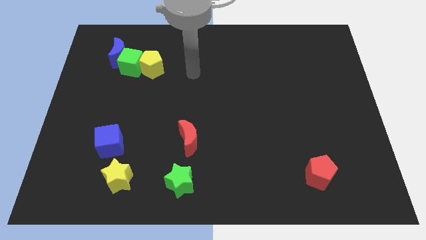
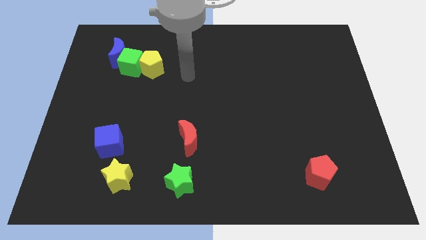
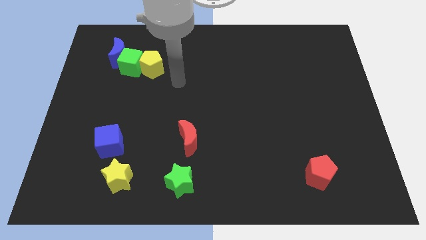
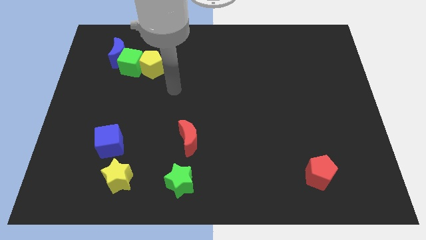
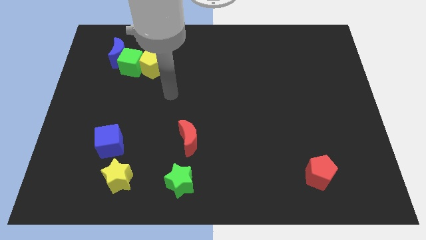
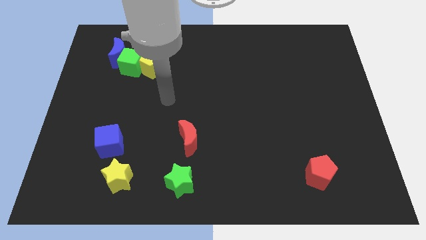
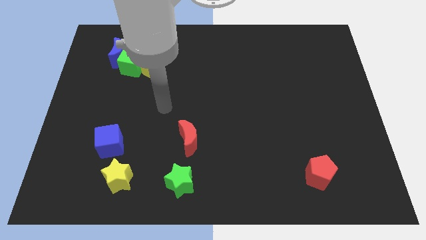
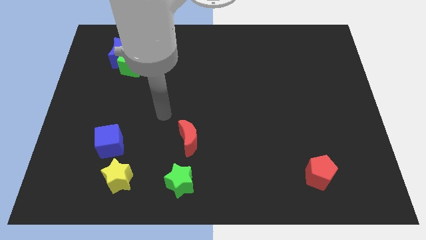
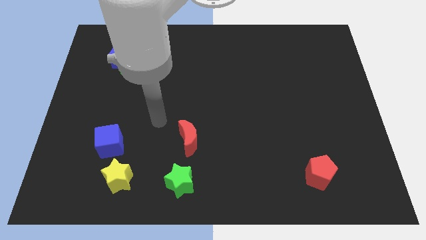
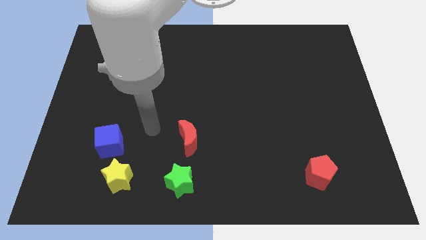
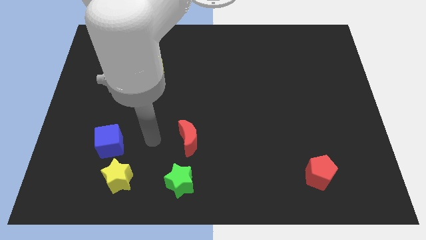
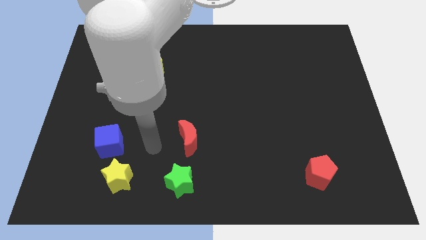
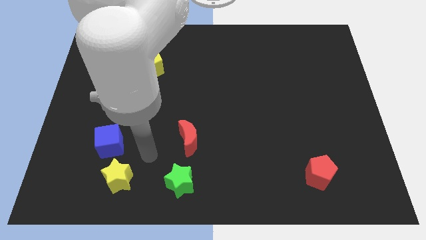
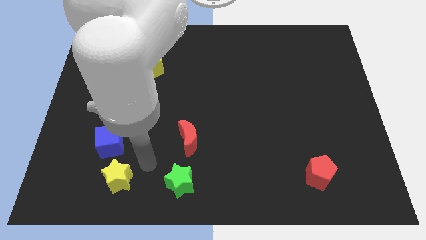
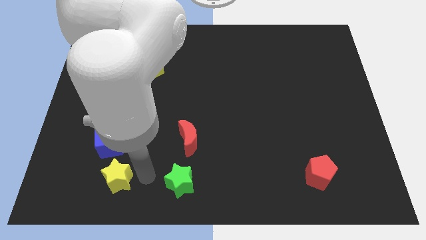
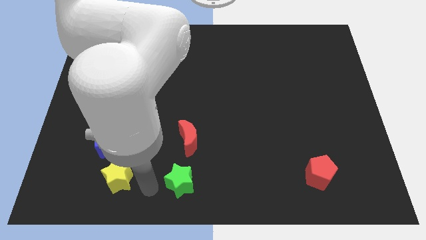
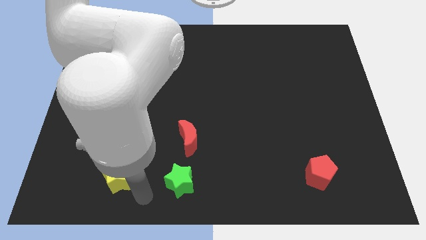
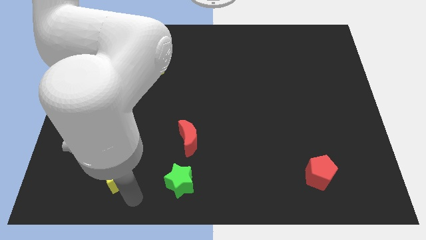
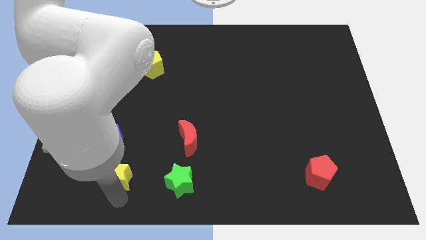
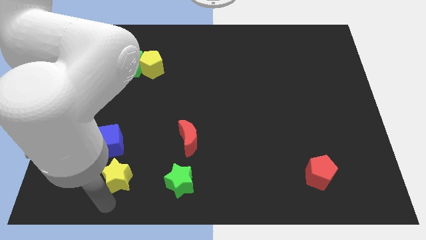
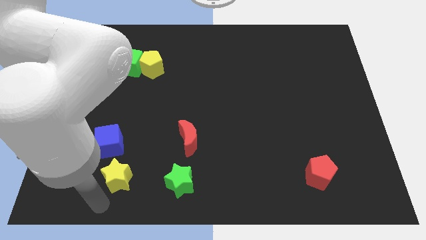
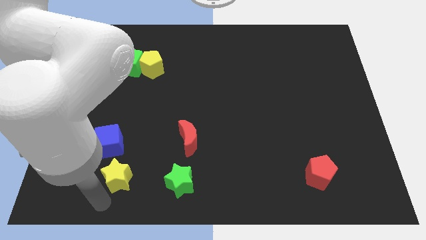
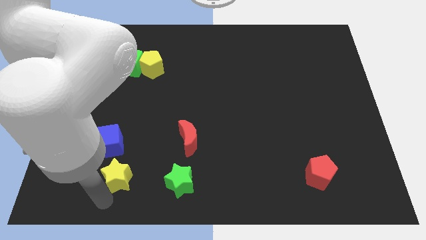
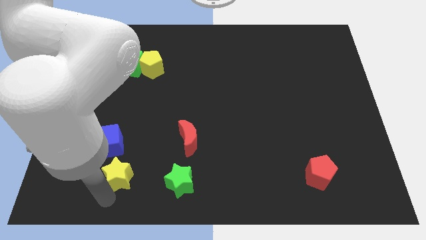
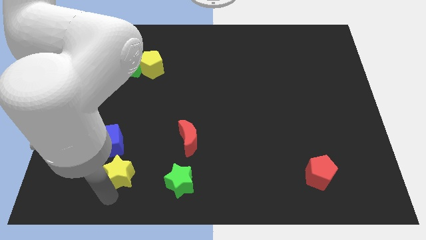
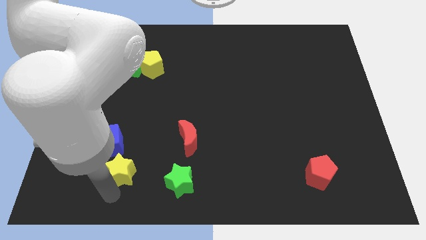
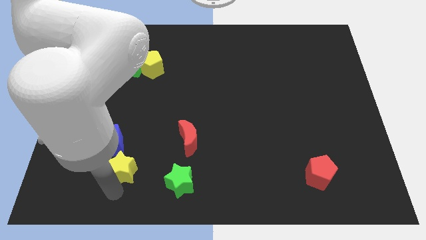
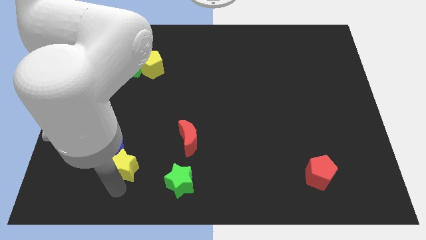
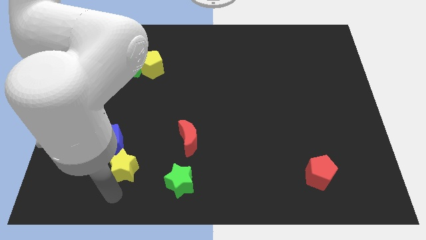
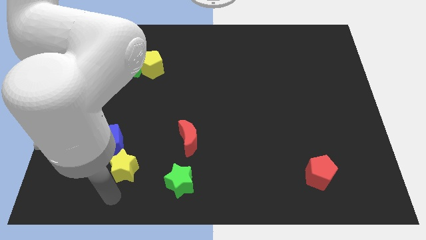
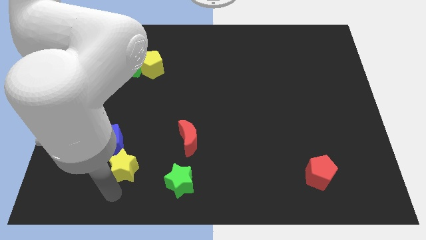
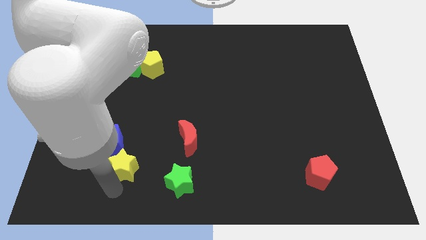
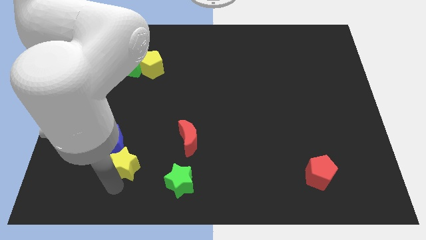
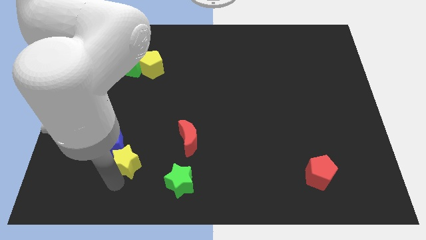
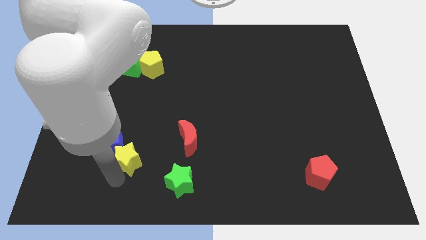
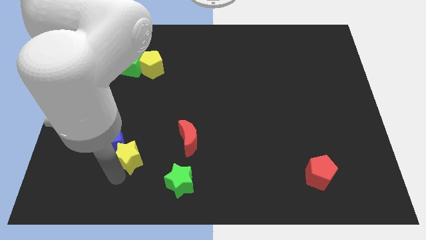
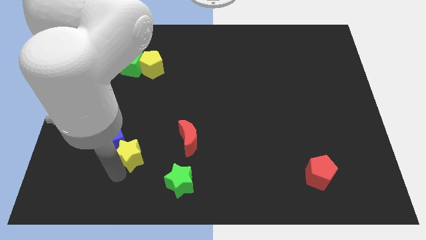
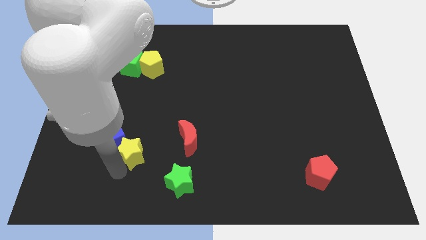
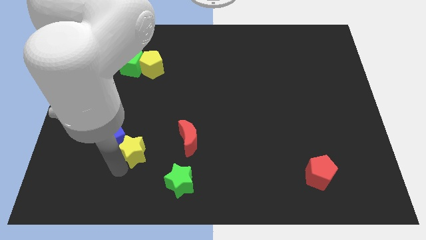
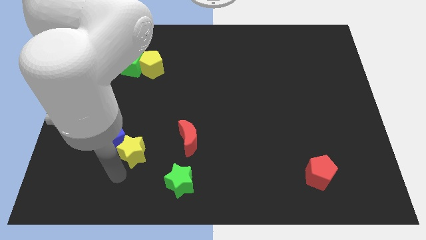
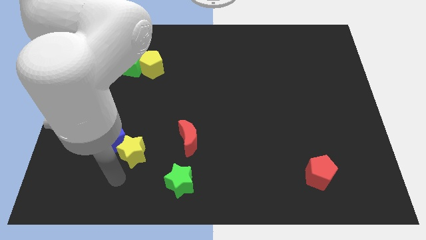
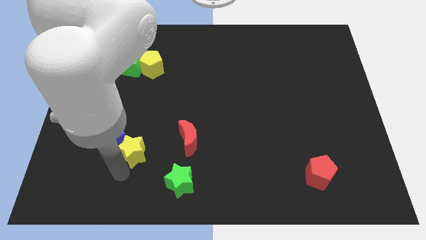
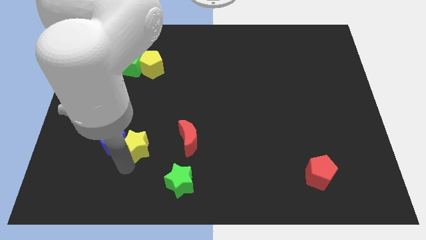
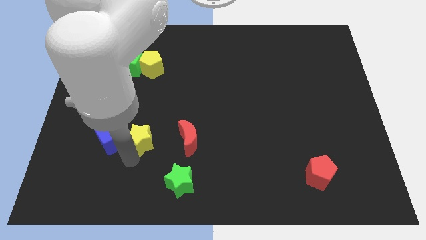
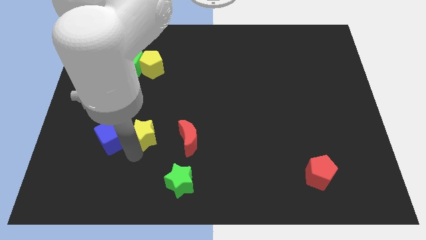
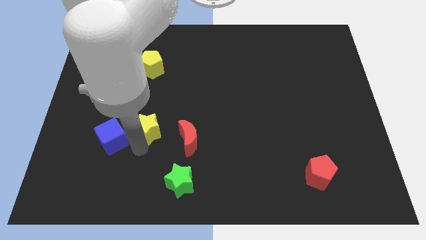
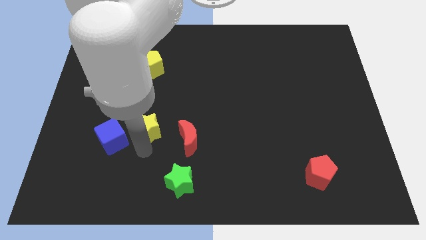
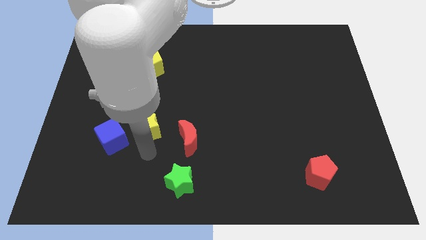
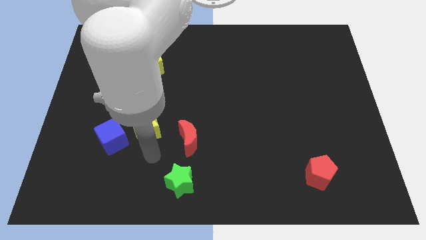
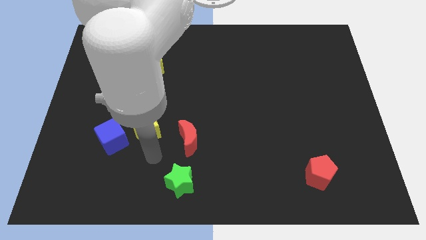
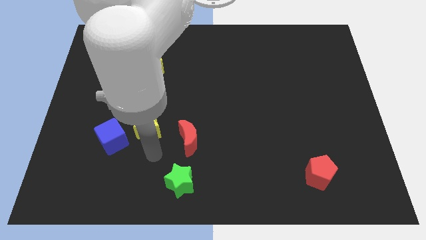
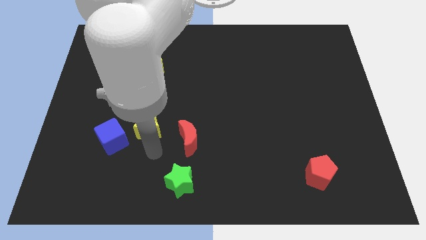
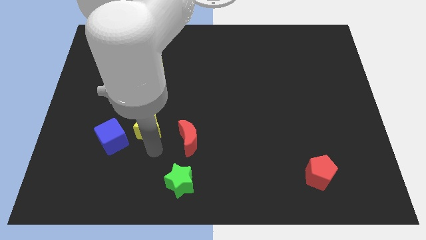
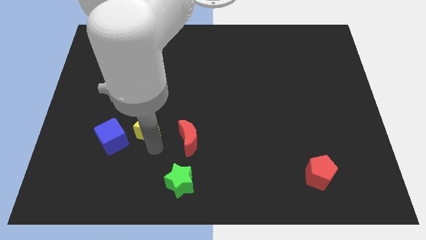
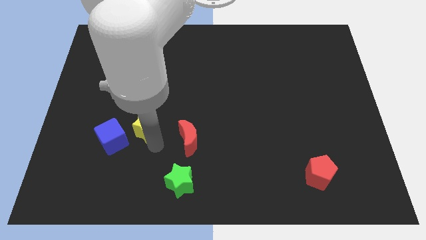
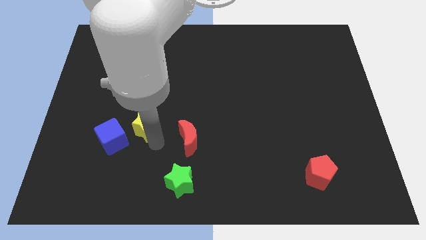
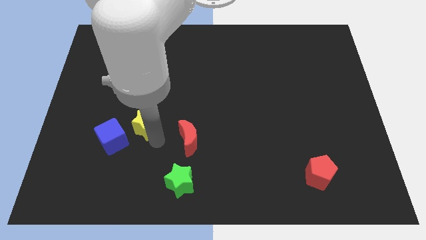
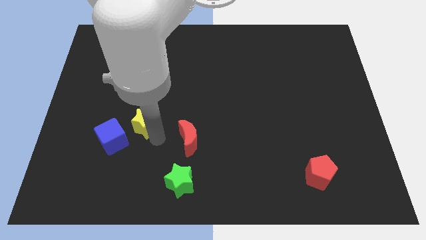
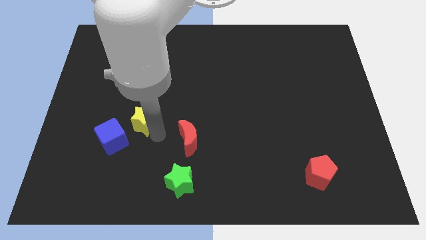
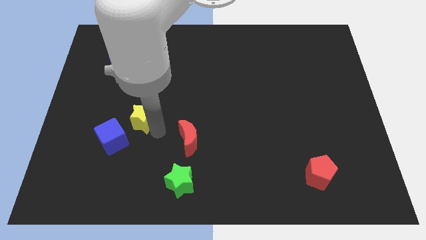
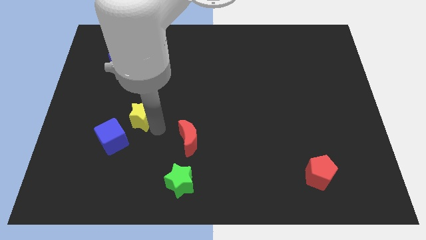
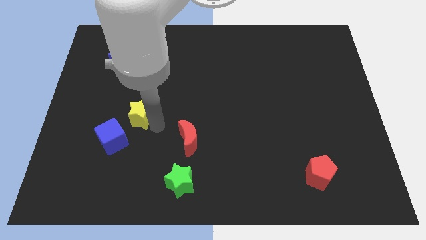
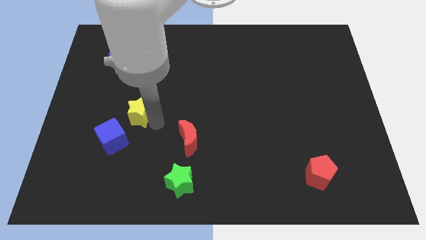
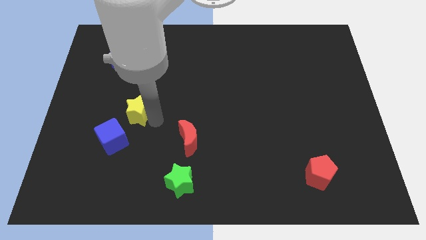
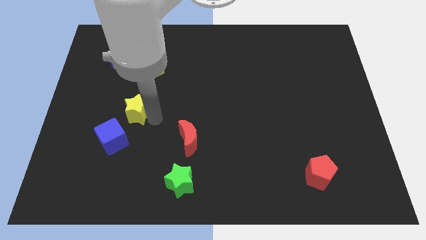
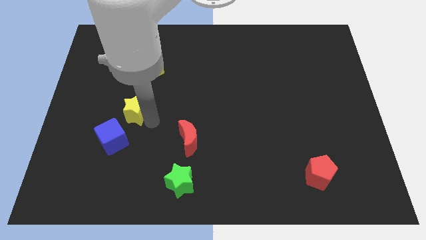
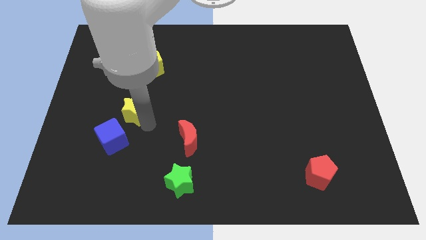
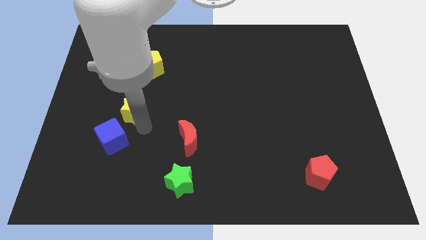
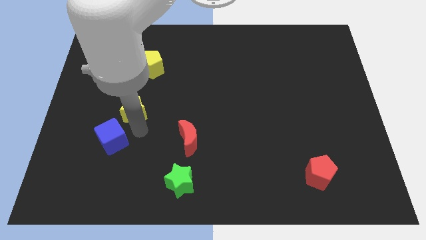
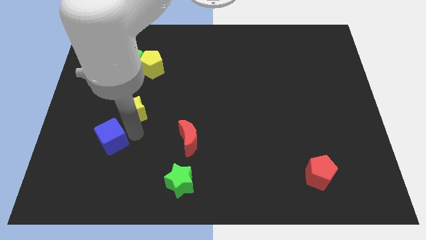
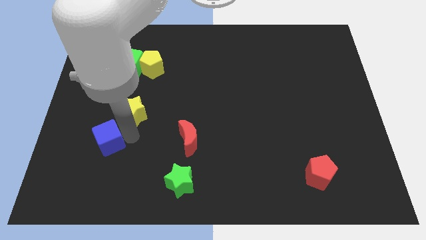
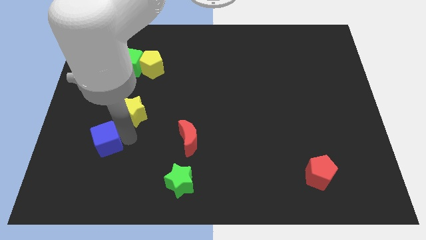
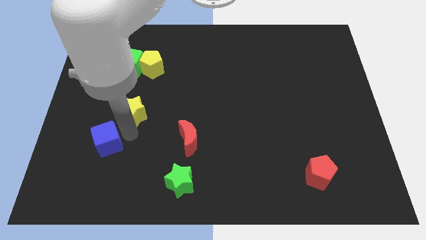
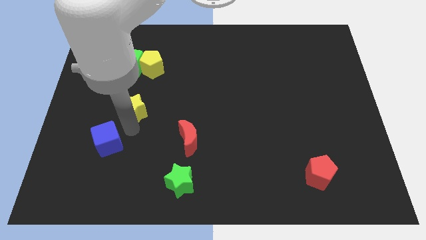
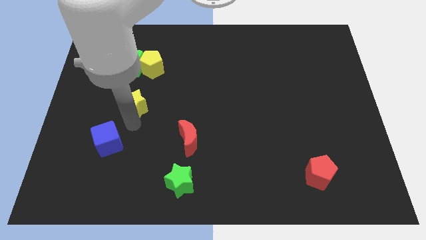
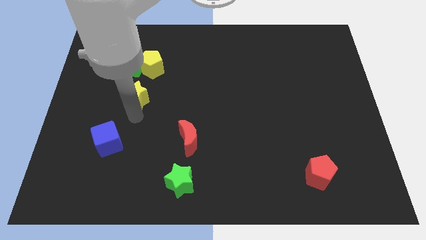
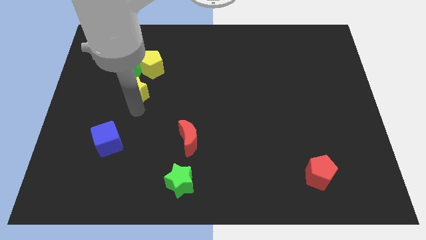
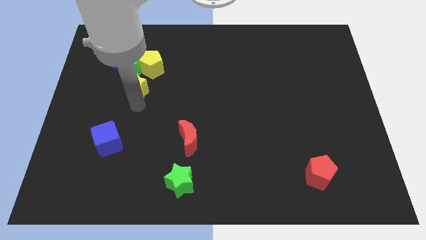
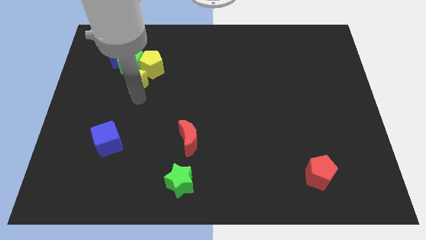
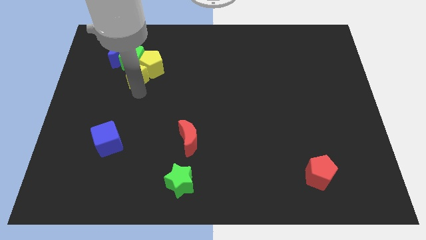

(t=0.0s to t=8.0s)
move the yellow star next to the green cube
